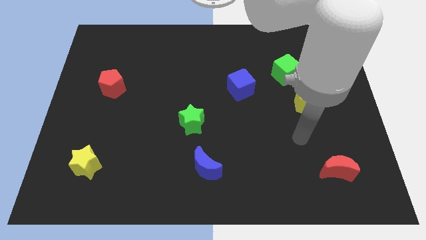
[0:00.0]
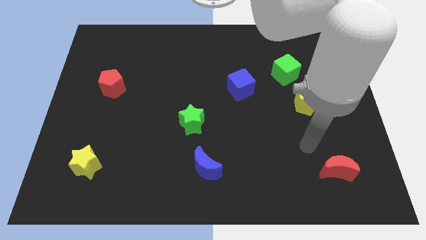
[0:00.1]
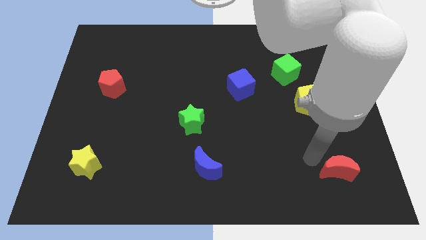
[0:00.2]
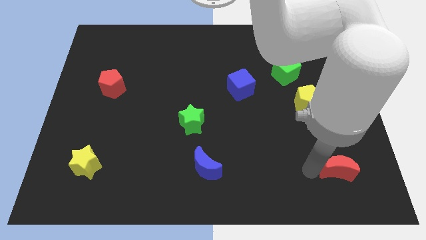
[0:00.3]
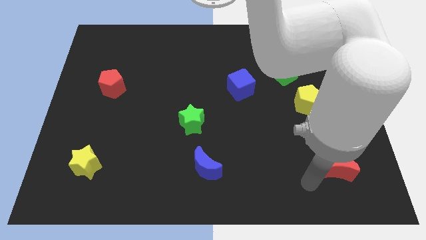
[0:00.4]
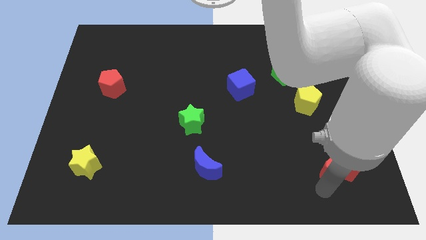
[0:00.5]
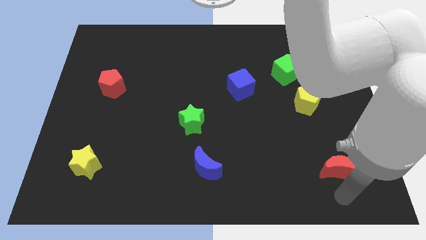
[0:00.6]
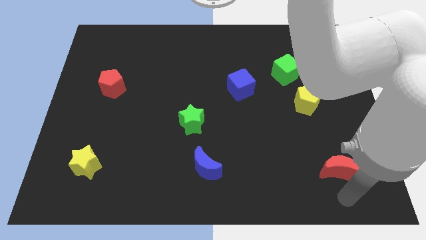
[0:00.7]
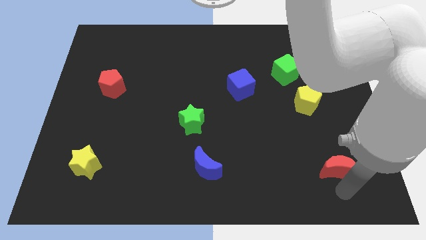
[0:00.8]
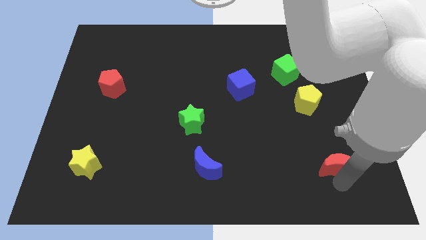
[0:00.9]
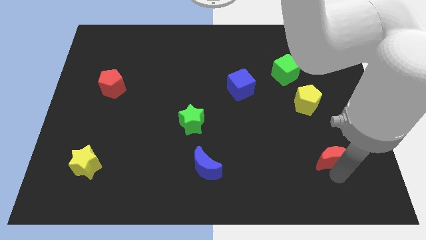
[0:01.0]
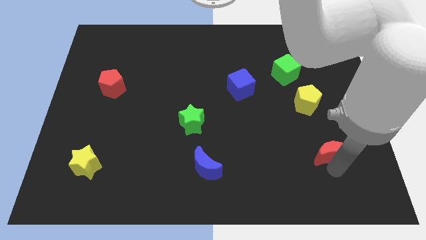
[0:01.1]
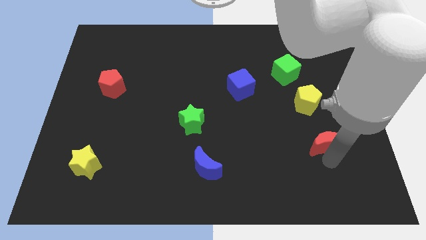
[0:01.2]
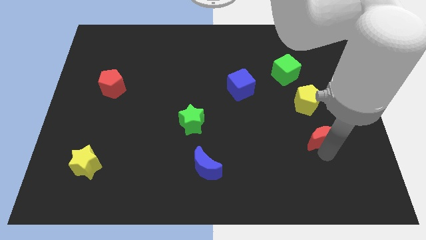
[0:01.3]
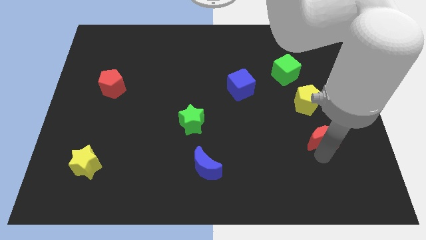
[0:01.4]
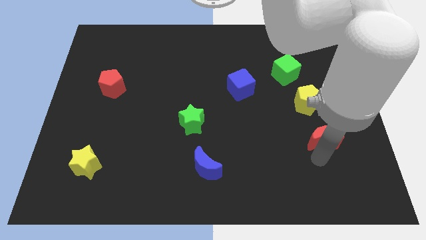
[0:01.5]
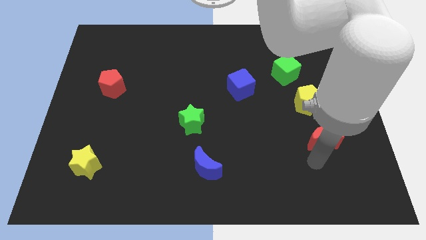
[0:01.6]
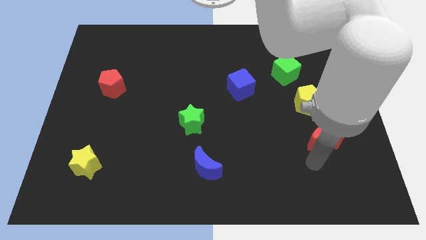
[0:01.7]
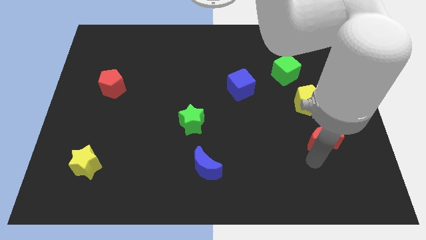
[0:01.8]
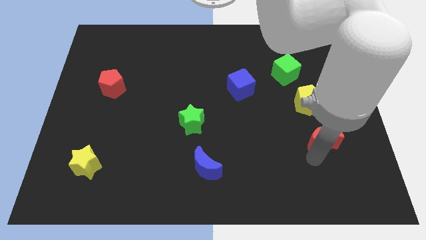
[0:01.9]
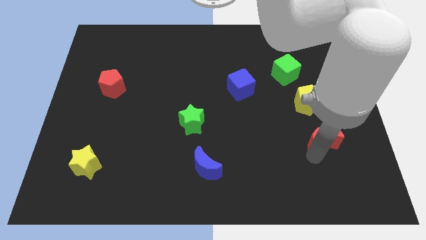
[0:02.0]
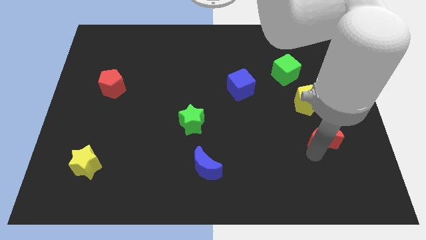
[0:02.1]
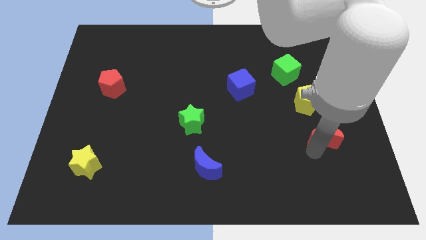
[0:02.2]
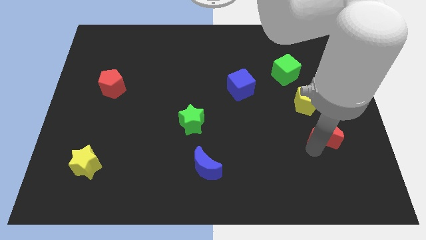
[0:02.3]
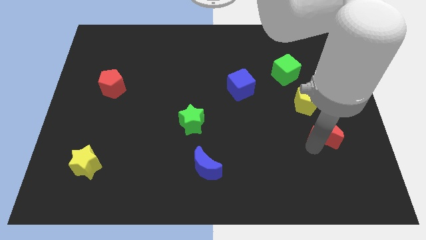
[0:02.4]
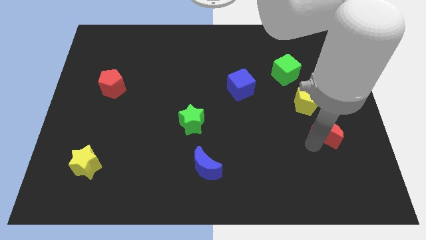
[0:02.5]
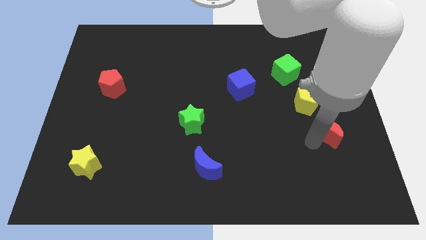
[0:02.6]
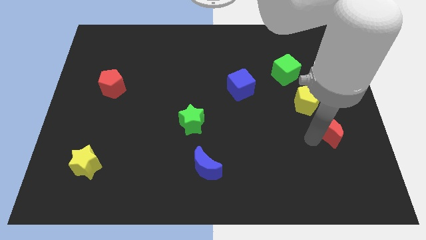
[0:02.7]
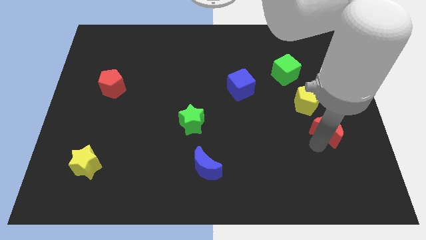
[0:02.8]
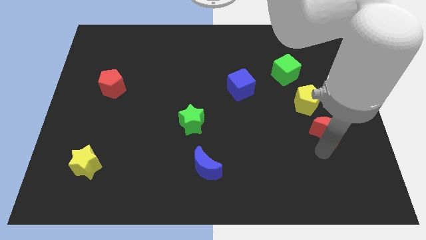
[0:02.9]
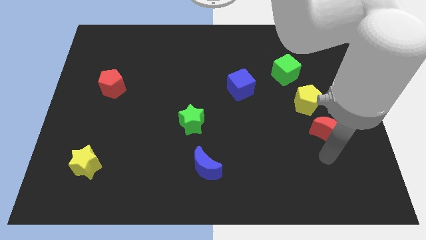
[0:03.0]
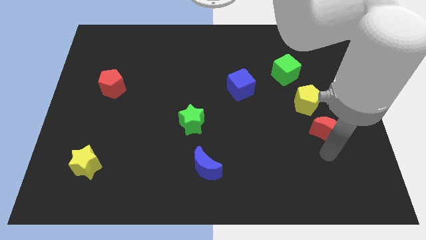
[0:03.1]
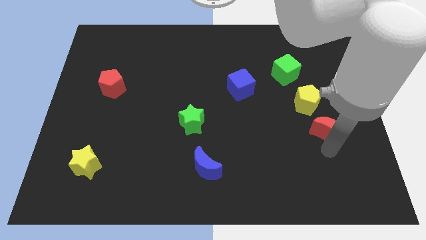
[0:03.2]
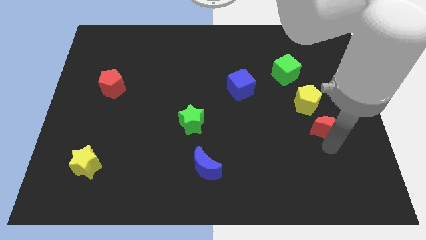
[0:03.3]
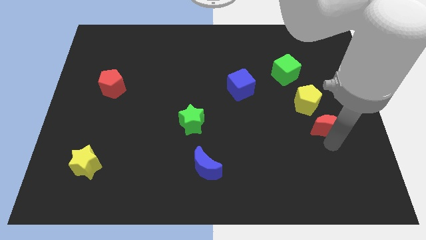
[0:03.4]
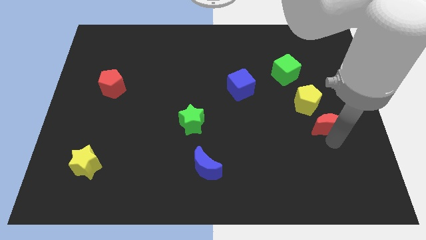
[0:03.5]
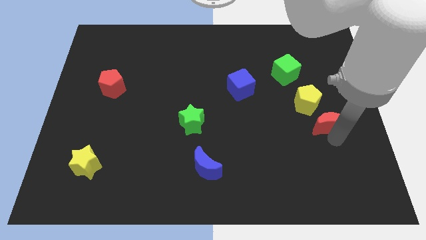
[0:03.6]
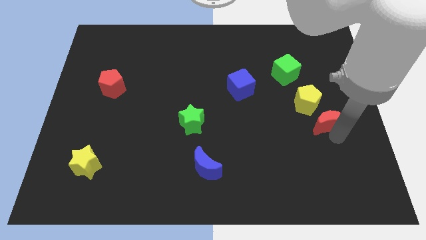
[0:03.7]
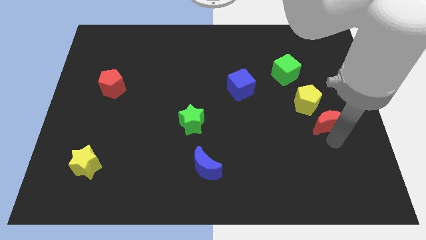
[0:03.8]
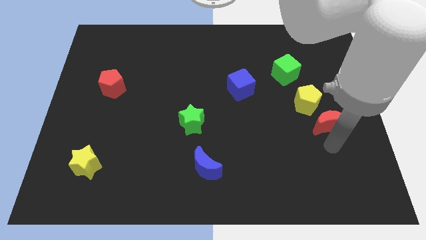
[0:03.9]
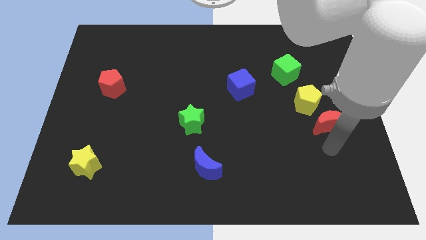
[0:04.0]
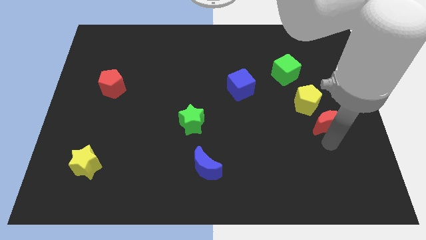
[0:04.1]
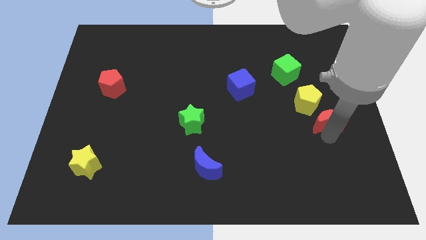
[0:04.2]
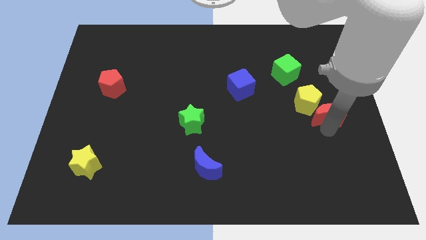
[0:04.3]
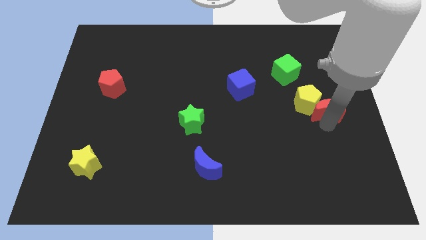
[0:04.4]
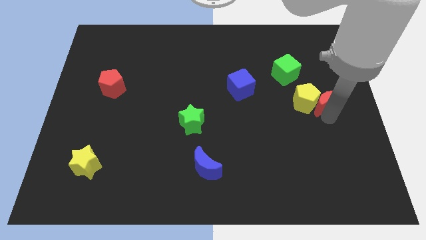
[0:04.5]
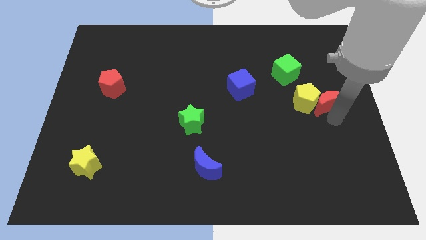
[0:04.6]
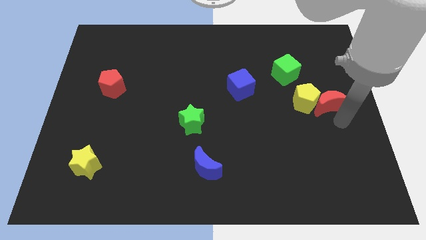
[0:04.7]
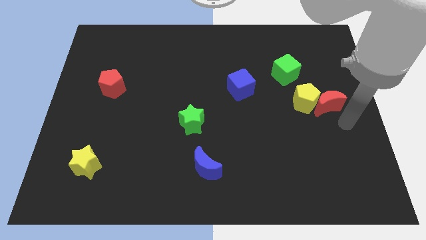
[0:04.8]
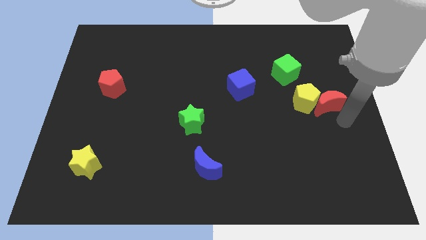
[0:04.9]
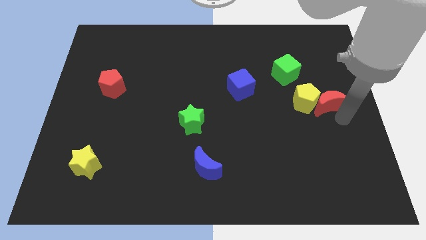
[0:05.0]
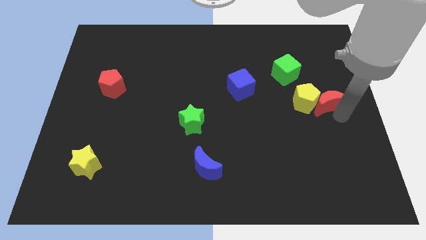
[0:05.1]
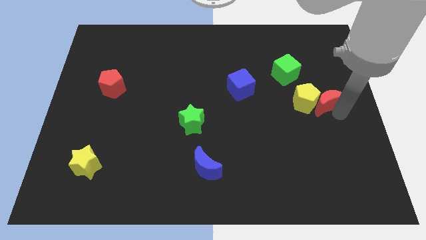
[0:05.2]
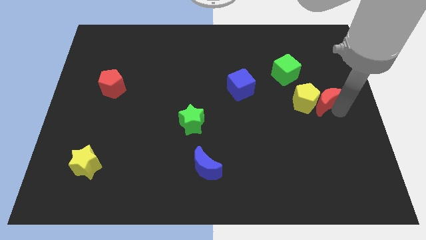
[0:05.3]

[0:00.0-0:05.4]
slide the red moon to the bottom right side of the green cube

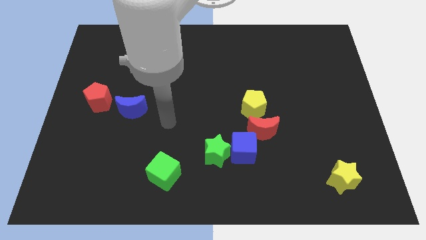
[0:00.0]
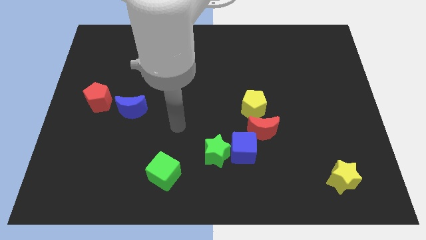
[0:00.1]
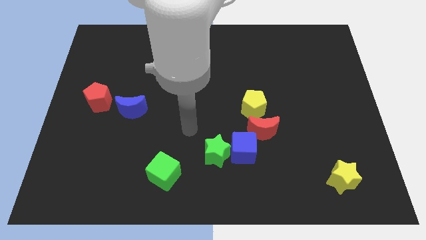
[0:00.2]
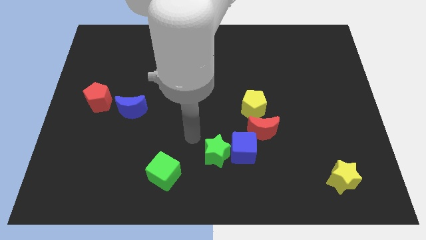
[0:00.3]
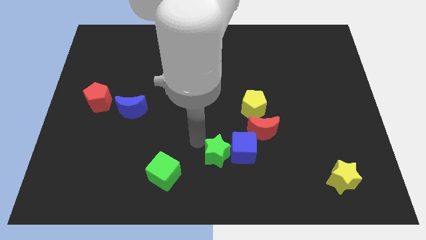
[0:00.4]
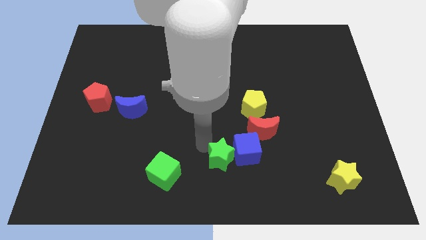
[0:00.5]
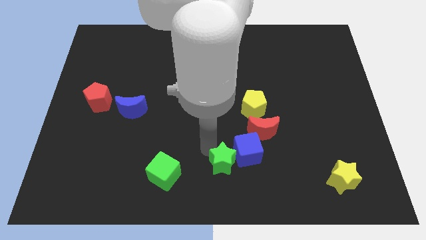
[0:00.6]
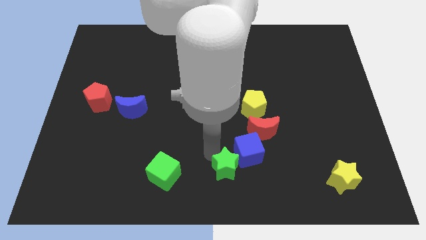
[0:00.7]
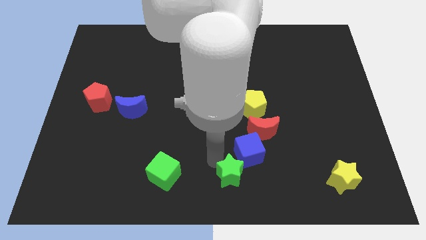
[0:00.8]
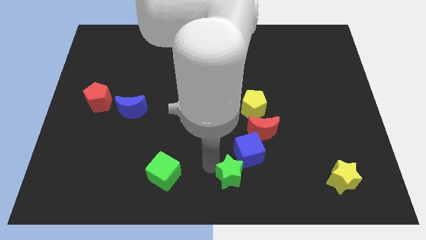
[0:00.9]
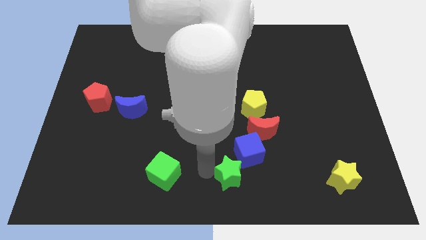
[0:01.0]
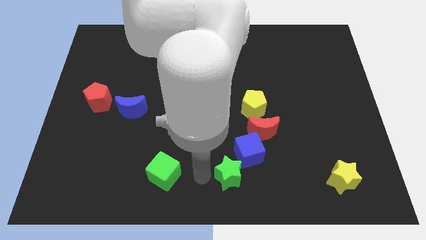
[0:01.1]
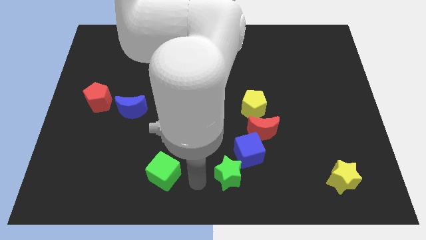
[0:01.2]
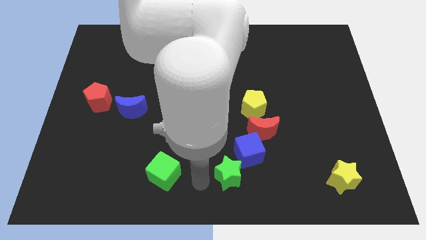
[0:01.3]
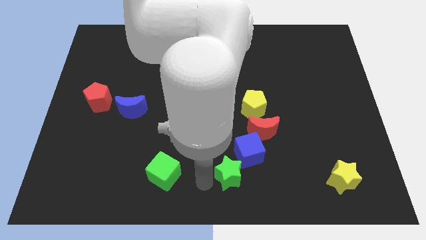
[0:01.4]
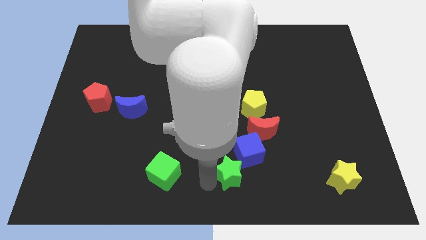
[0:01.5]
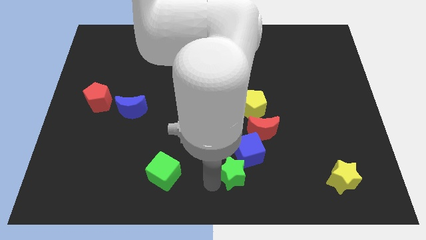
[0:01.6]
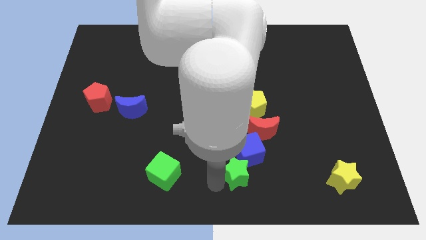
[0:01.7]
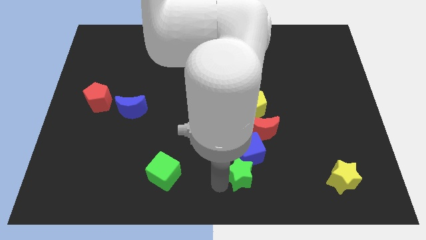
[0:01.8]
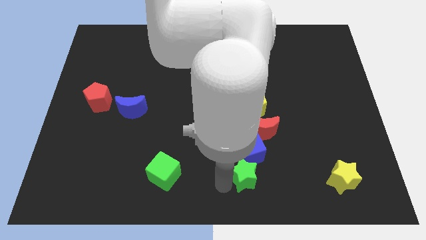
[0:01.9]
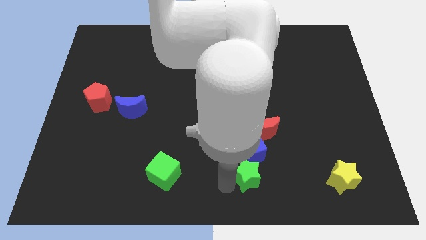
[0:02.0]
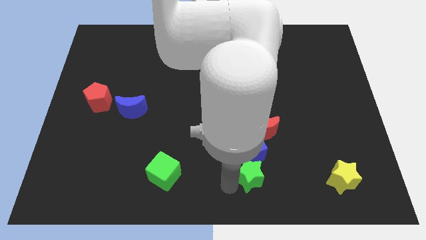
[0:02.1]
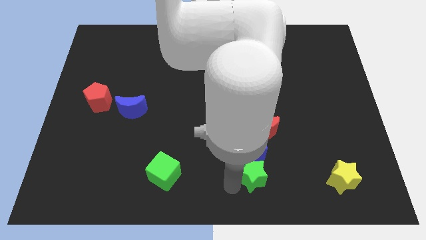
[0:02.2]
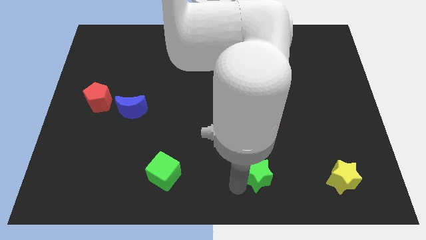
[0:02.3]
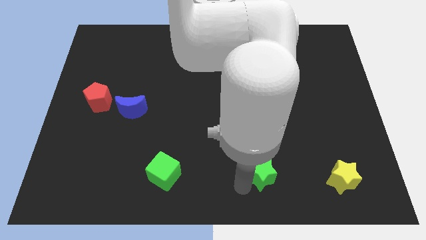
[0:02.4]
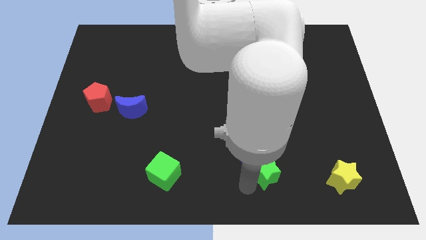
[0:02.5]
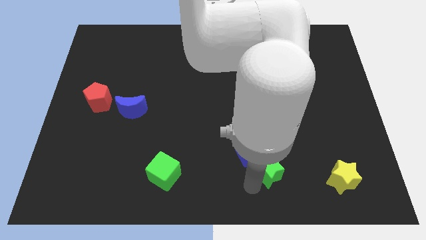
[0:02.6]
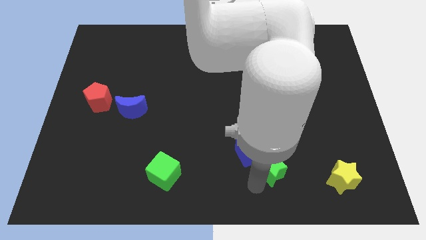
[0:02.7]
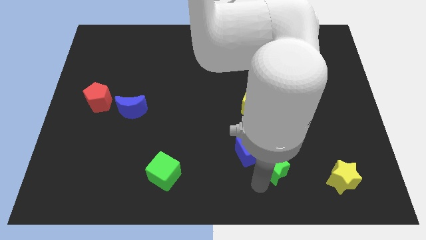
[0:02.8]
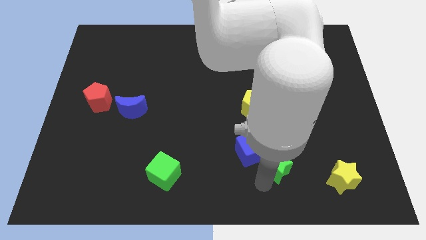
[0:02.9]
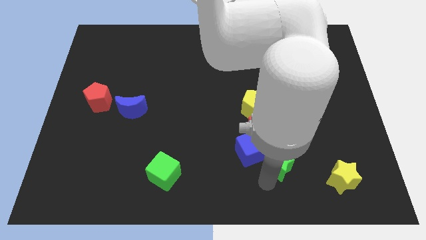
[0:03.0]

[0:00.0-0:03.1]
move the green star to the bottom right of the red moon
